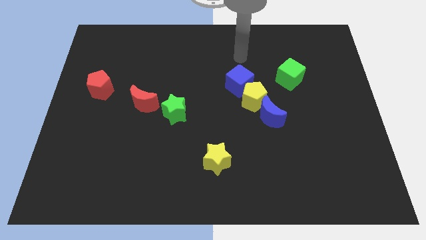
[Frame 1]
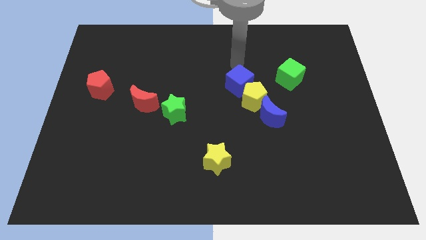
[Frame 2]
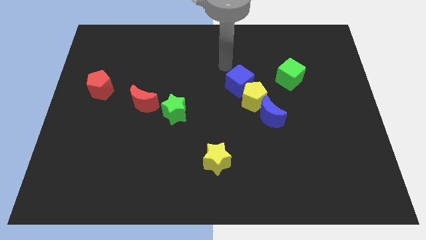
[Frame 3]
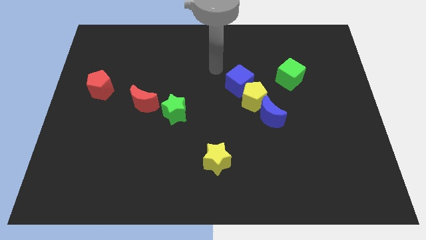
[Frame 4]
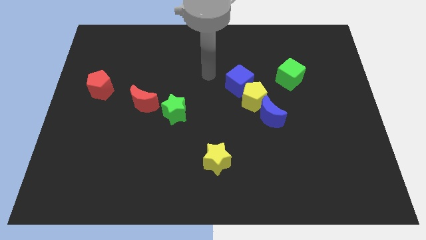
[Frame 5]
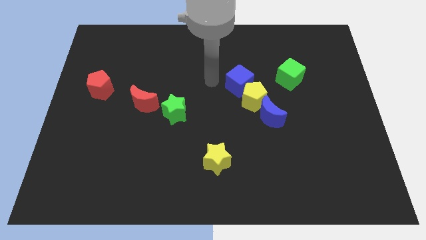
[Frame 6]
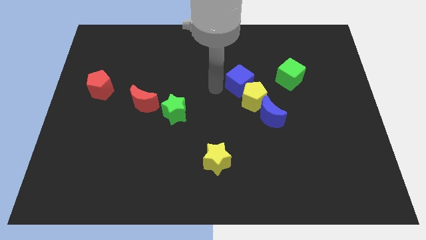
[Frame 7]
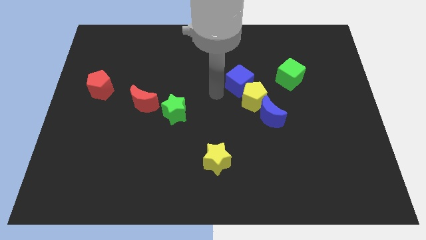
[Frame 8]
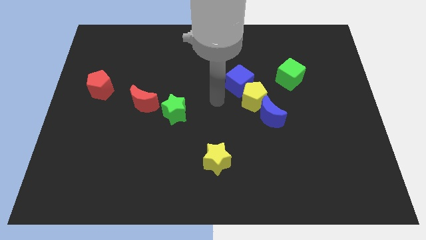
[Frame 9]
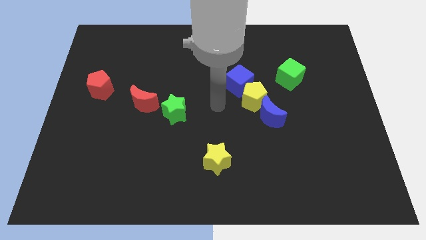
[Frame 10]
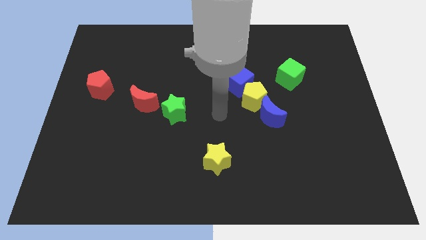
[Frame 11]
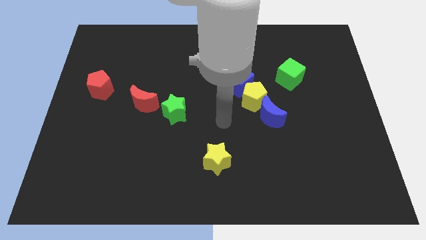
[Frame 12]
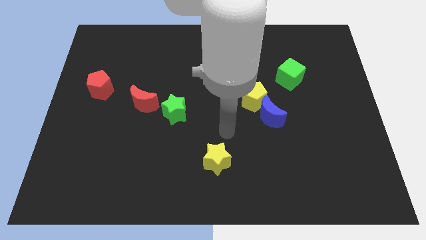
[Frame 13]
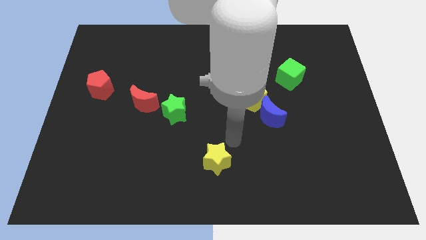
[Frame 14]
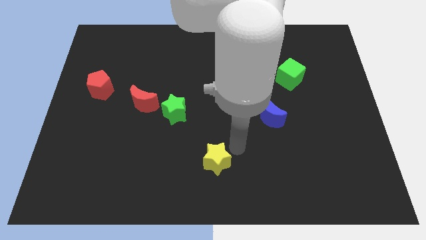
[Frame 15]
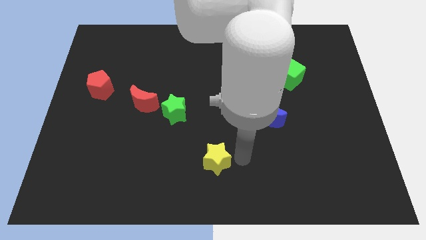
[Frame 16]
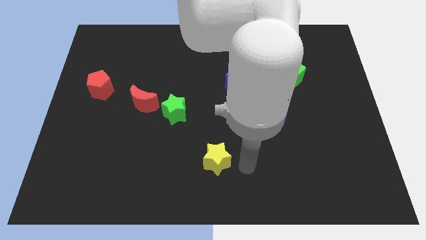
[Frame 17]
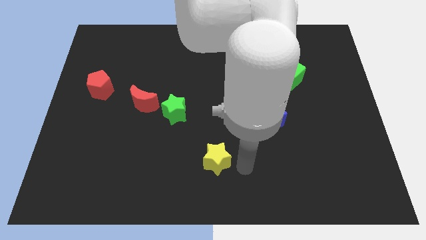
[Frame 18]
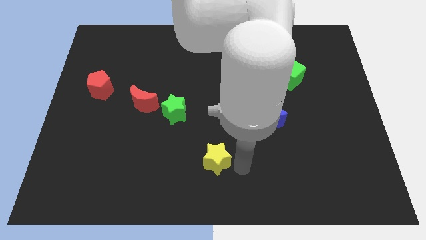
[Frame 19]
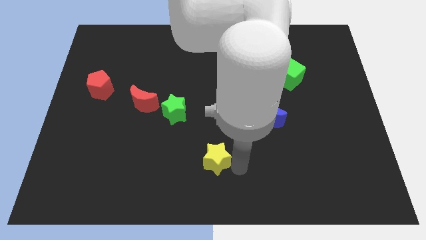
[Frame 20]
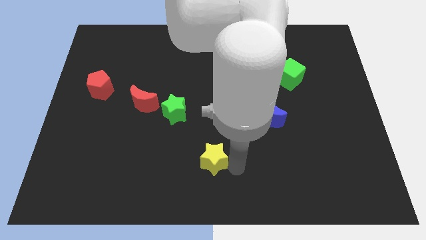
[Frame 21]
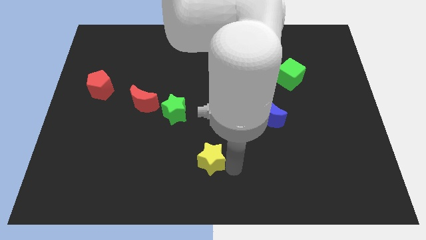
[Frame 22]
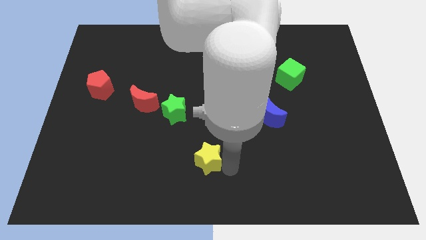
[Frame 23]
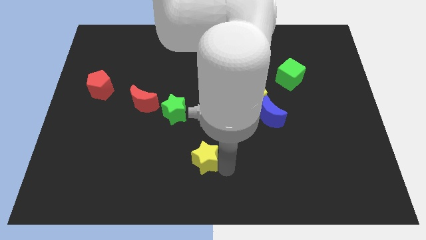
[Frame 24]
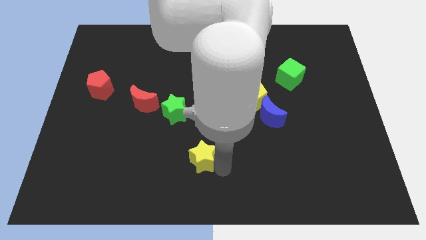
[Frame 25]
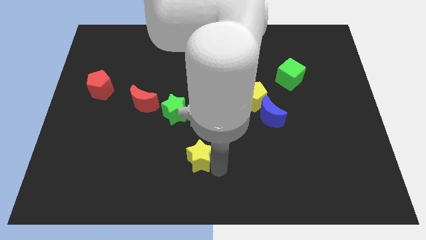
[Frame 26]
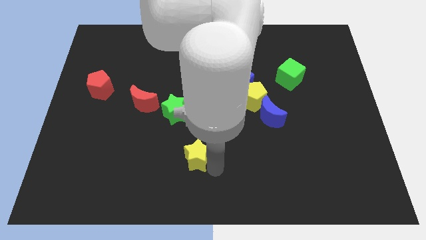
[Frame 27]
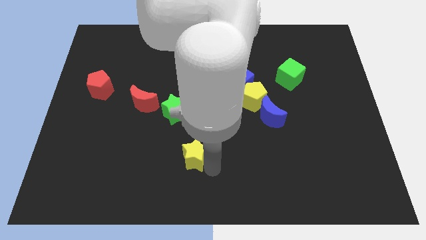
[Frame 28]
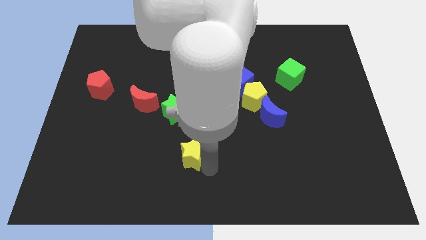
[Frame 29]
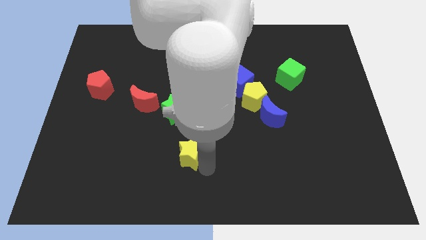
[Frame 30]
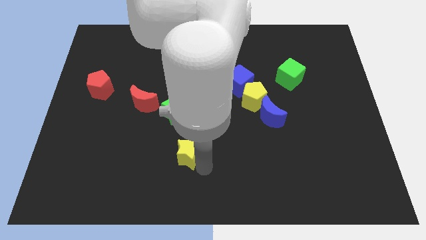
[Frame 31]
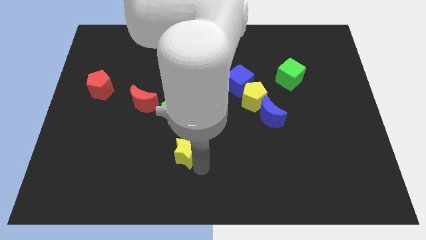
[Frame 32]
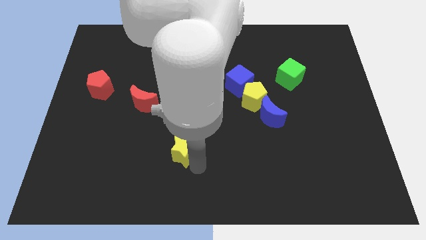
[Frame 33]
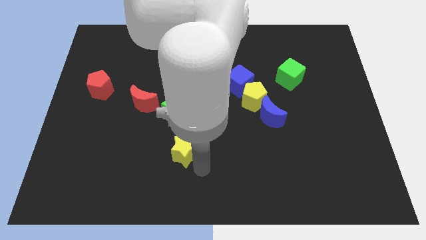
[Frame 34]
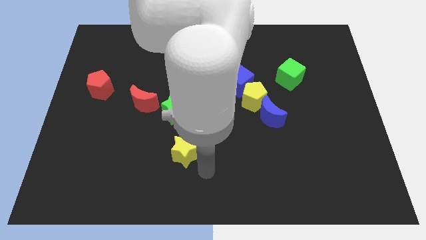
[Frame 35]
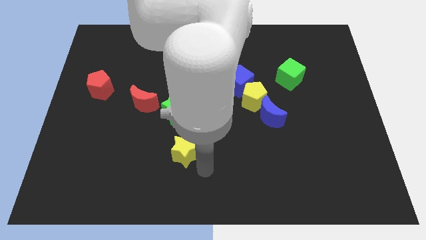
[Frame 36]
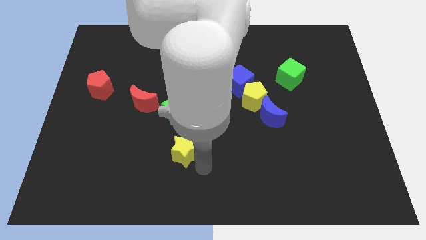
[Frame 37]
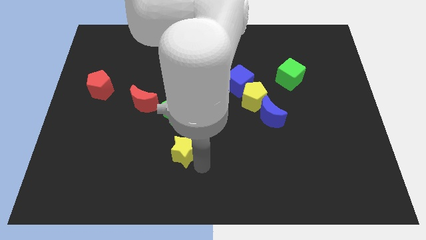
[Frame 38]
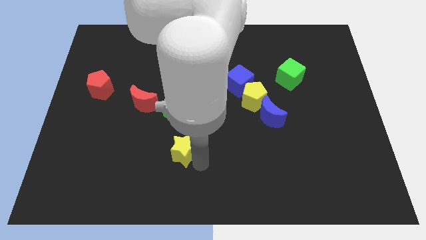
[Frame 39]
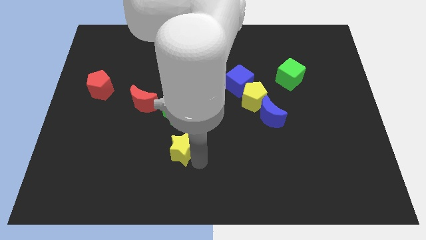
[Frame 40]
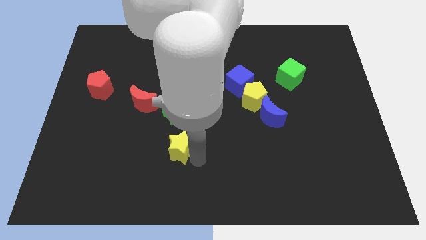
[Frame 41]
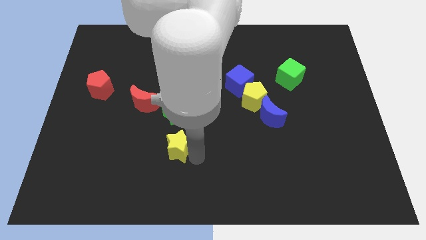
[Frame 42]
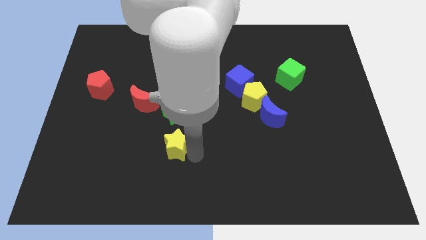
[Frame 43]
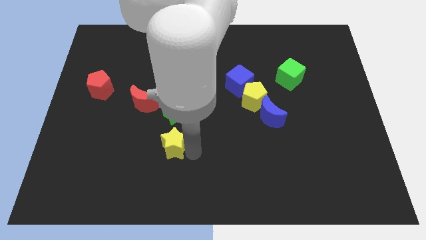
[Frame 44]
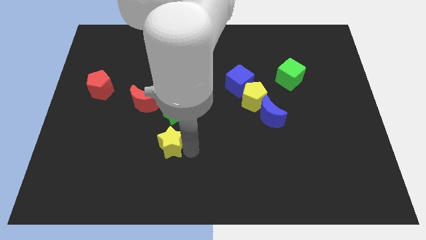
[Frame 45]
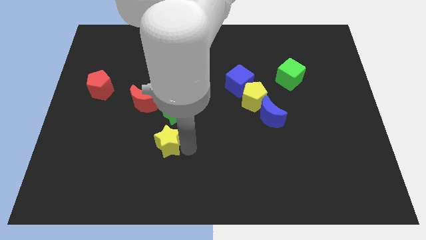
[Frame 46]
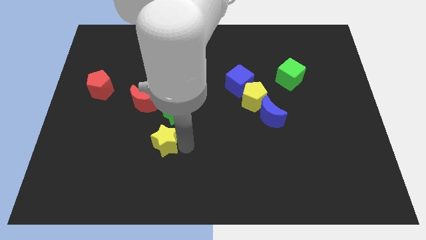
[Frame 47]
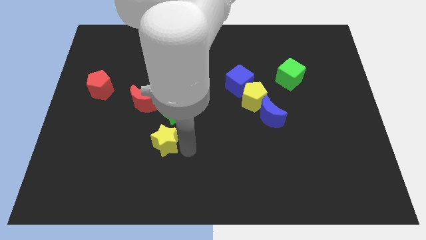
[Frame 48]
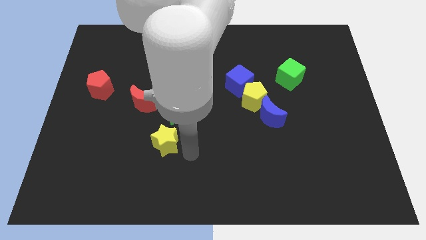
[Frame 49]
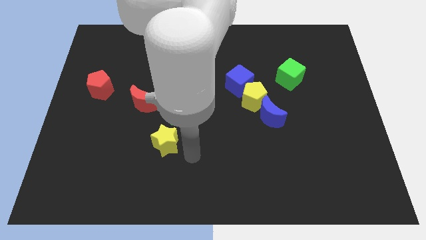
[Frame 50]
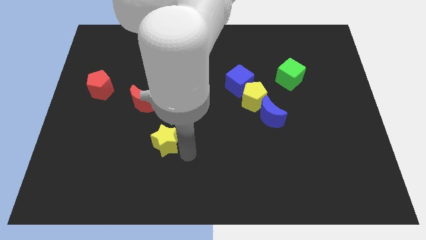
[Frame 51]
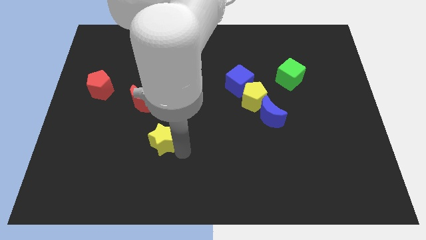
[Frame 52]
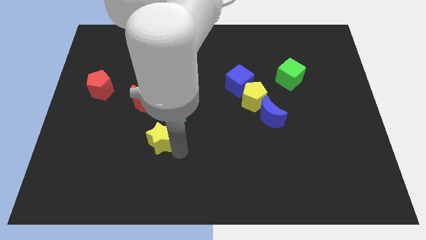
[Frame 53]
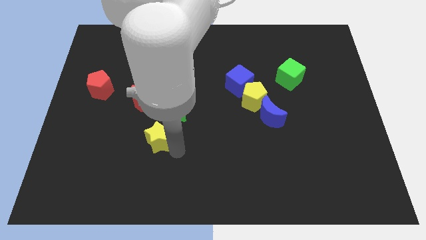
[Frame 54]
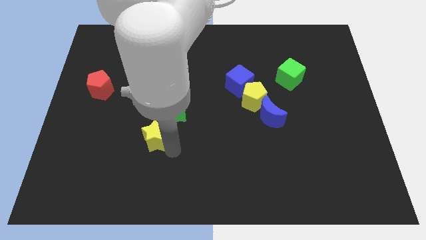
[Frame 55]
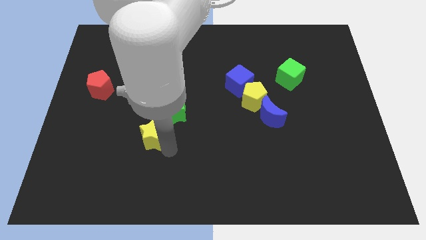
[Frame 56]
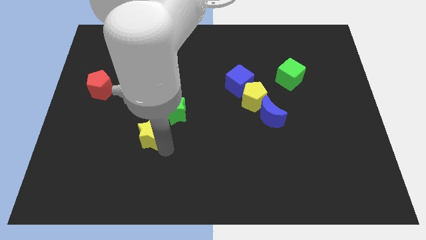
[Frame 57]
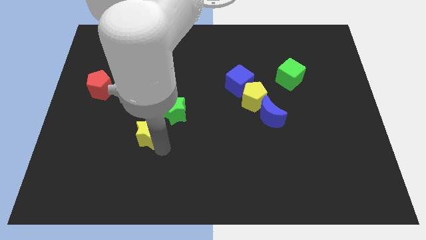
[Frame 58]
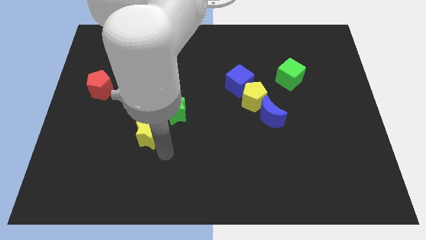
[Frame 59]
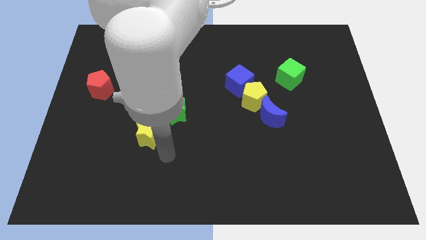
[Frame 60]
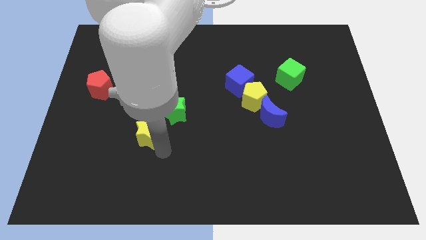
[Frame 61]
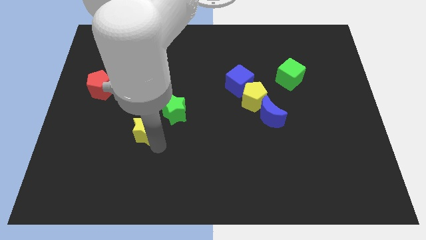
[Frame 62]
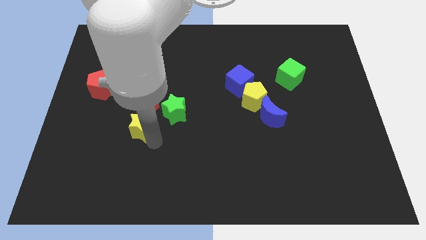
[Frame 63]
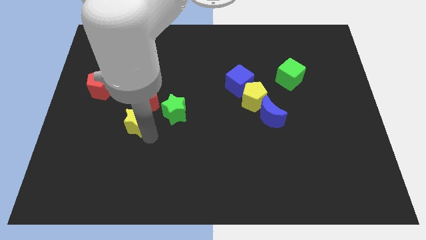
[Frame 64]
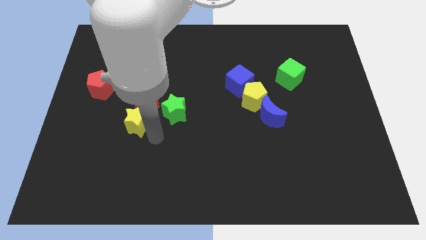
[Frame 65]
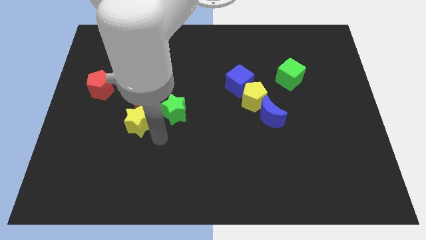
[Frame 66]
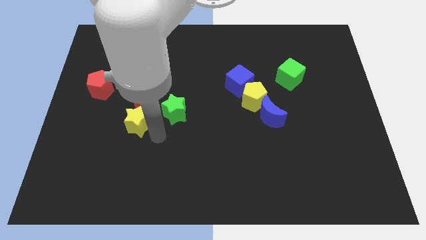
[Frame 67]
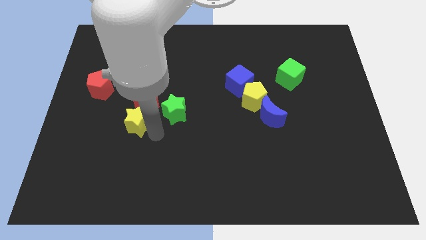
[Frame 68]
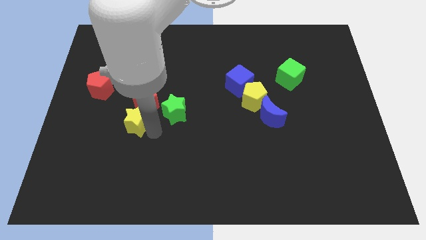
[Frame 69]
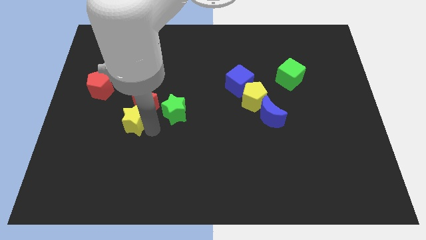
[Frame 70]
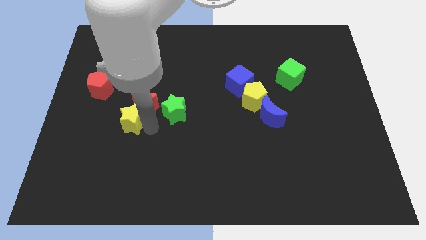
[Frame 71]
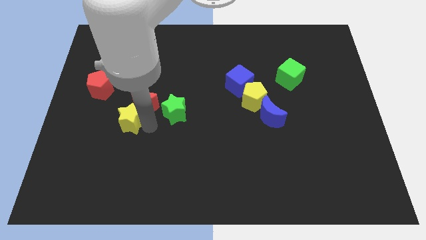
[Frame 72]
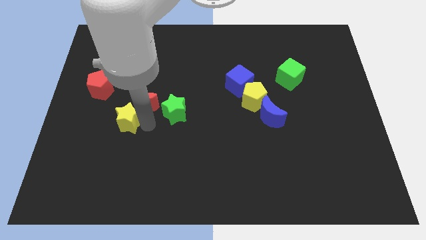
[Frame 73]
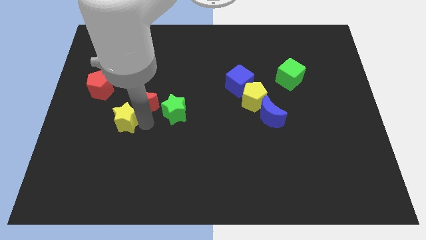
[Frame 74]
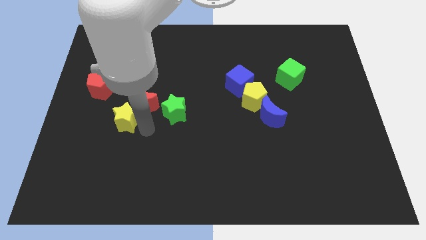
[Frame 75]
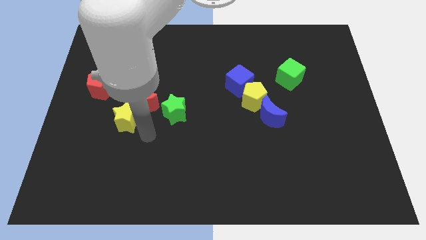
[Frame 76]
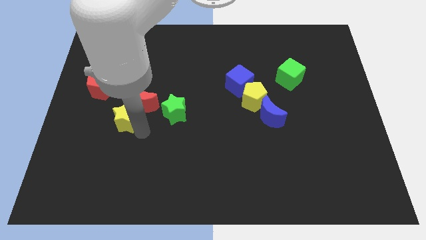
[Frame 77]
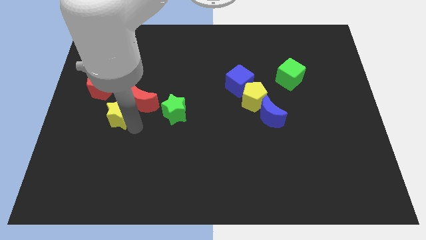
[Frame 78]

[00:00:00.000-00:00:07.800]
push the yellow star to the left of the red moon
